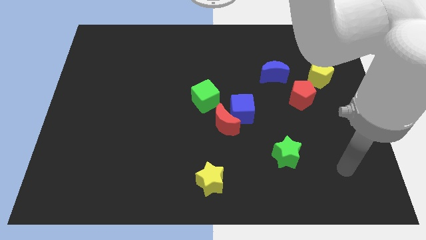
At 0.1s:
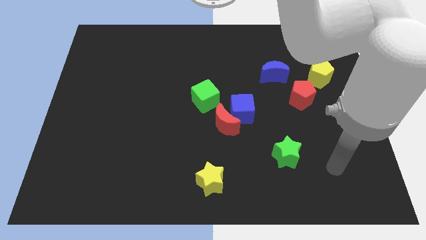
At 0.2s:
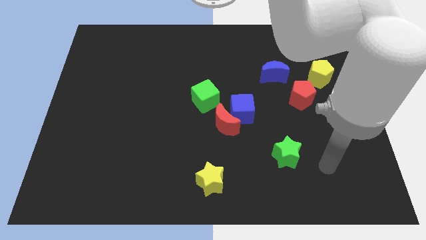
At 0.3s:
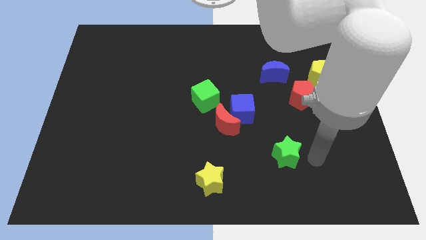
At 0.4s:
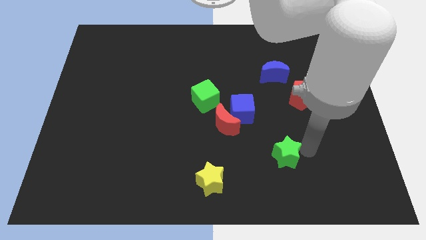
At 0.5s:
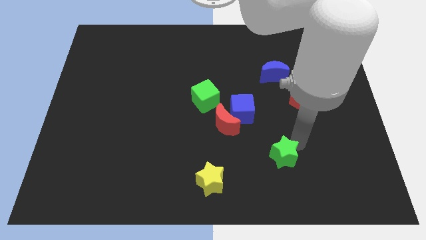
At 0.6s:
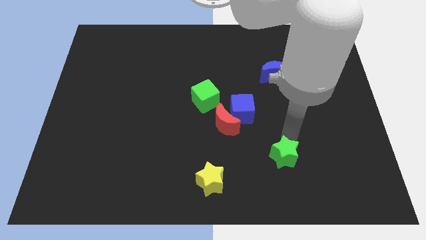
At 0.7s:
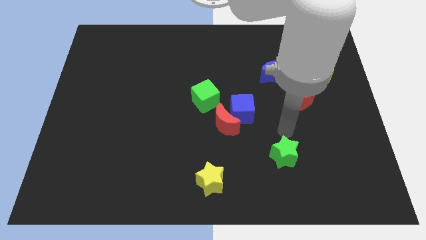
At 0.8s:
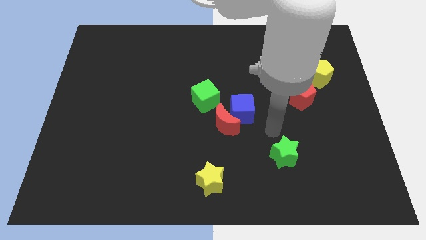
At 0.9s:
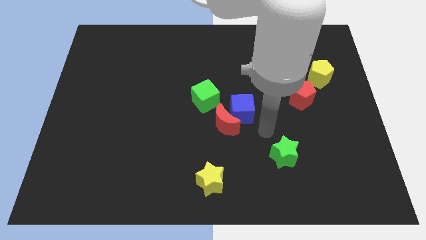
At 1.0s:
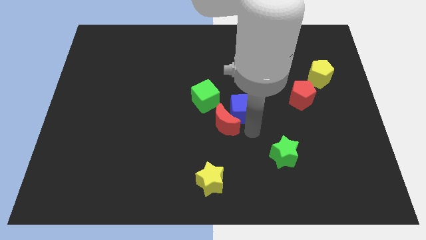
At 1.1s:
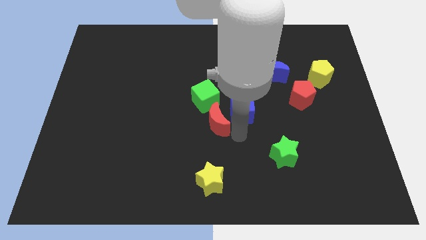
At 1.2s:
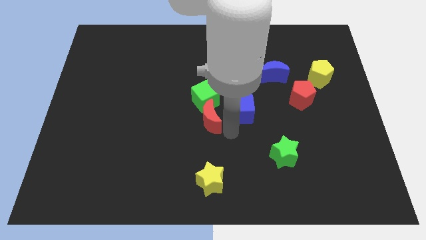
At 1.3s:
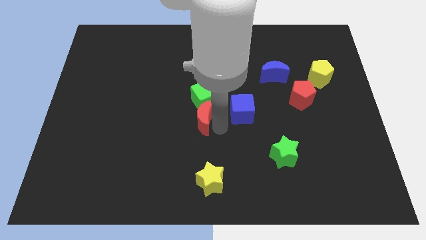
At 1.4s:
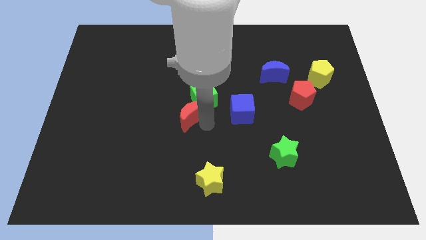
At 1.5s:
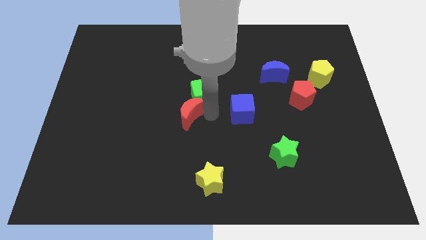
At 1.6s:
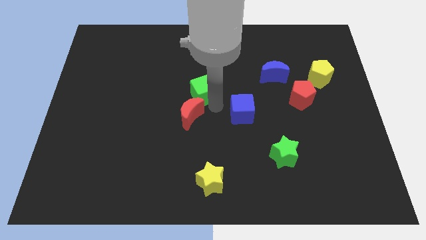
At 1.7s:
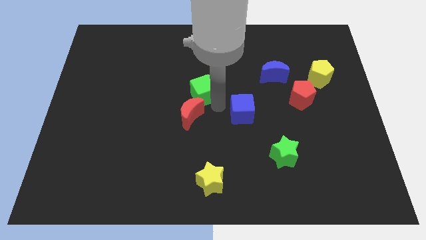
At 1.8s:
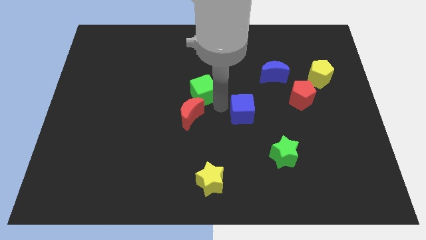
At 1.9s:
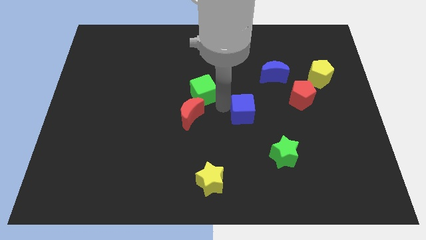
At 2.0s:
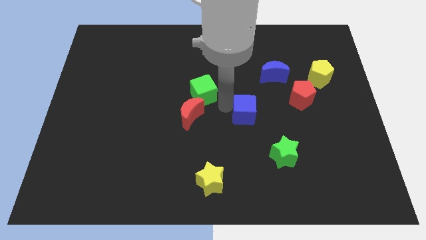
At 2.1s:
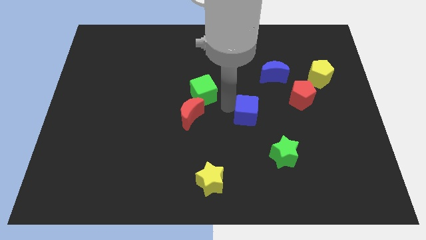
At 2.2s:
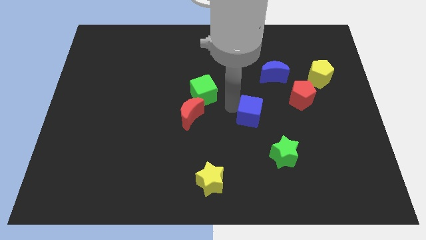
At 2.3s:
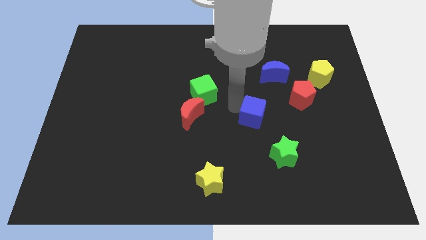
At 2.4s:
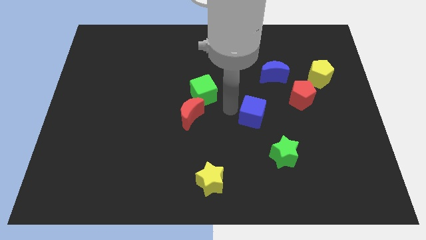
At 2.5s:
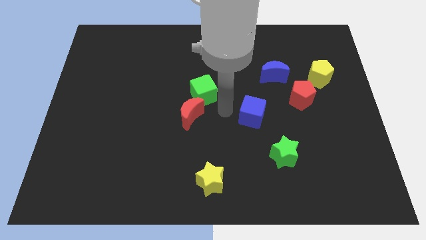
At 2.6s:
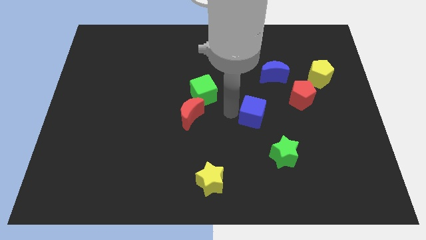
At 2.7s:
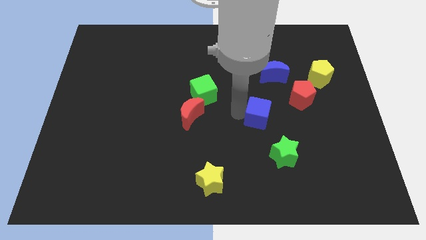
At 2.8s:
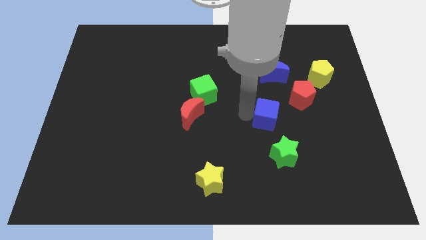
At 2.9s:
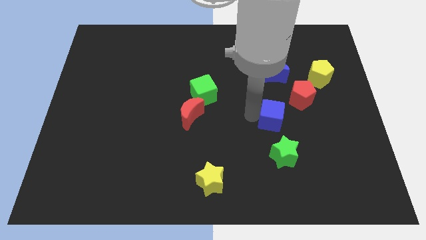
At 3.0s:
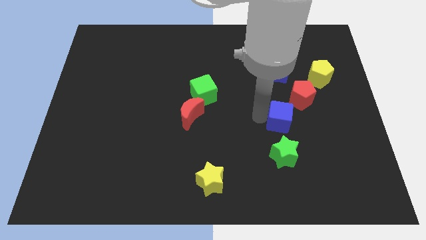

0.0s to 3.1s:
push the blue cube a little bit to the right

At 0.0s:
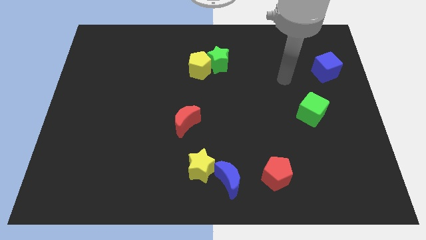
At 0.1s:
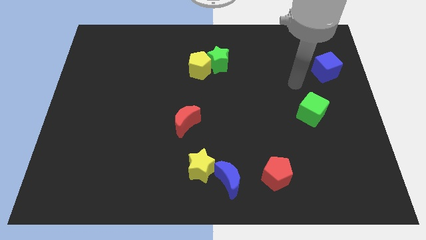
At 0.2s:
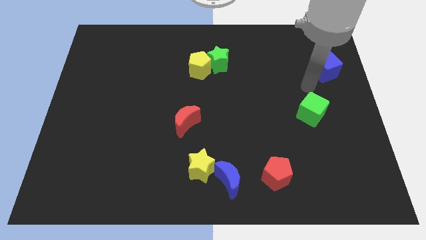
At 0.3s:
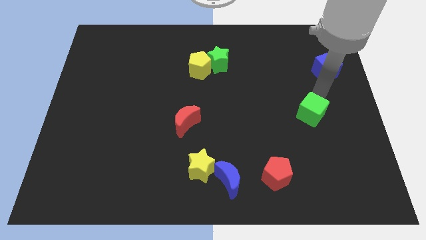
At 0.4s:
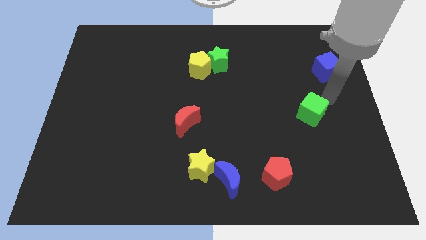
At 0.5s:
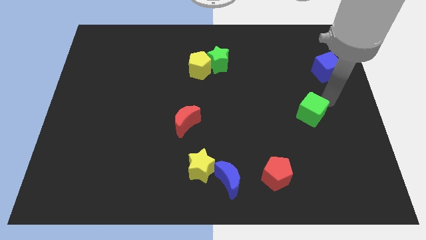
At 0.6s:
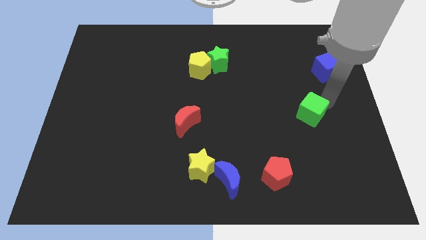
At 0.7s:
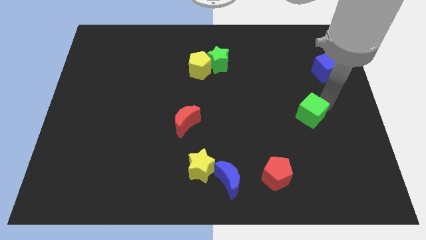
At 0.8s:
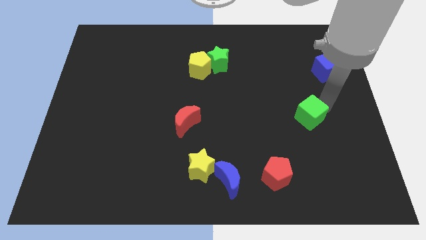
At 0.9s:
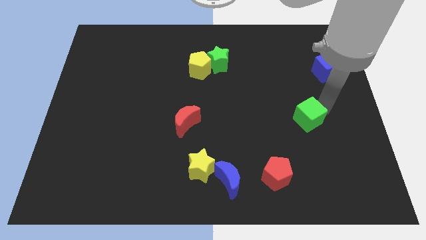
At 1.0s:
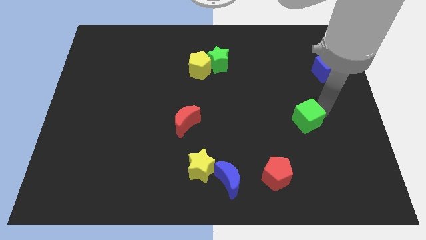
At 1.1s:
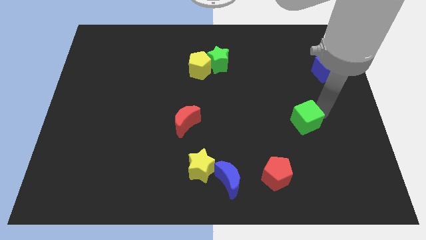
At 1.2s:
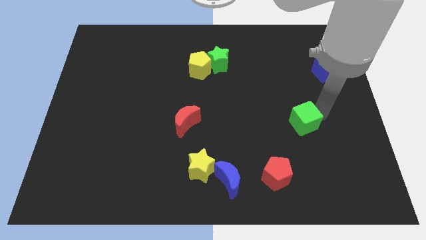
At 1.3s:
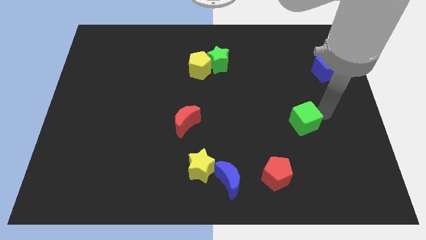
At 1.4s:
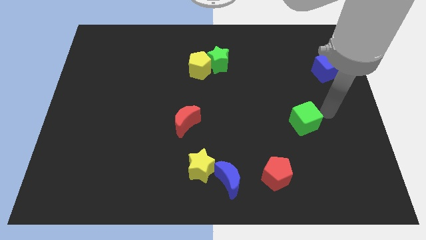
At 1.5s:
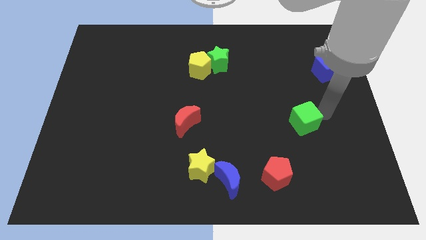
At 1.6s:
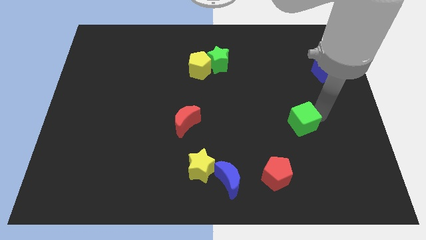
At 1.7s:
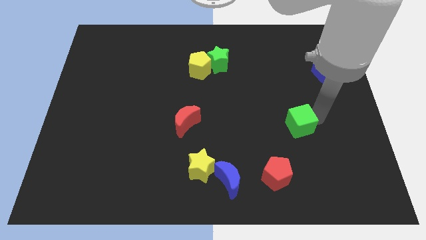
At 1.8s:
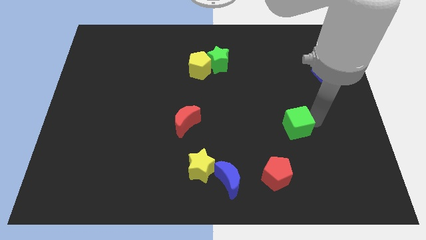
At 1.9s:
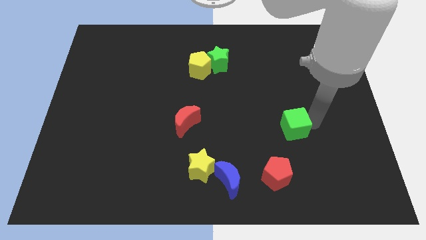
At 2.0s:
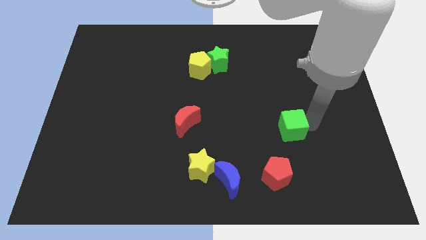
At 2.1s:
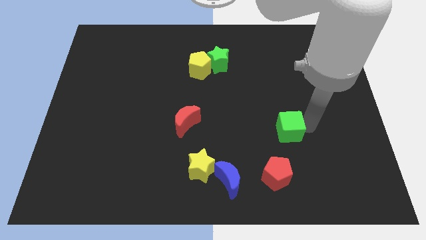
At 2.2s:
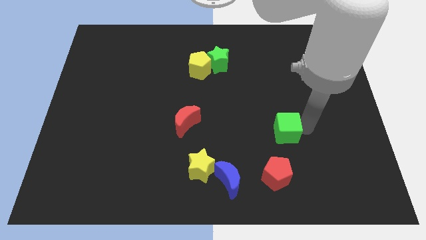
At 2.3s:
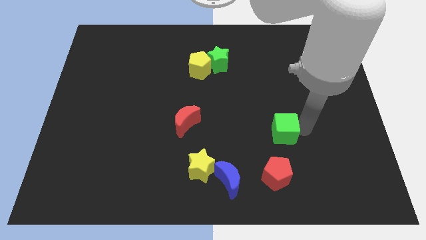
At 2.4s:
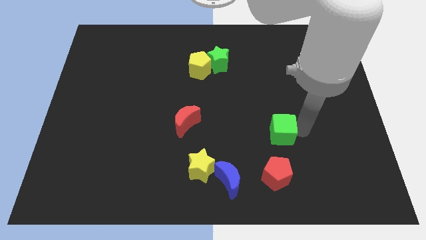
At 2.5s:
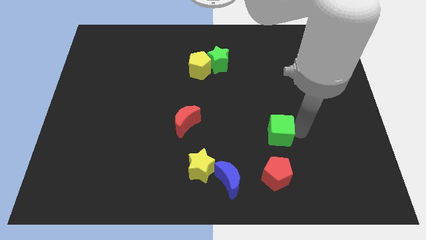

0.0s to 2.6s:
push the green cube to the left a bit

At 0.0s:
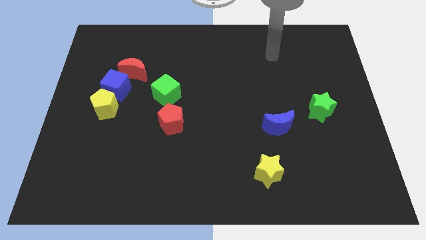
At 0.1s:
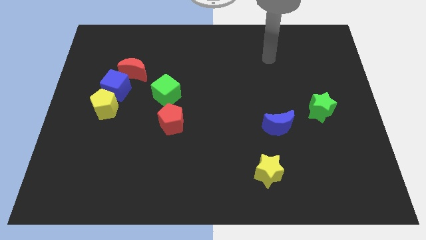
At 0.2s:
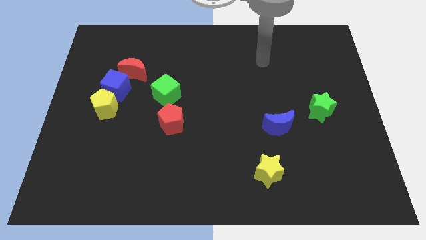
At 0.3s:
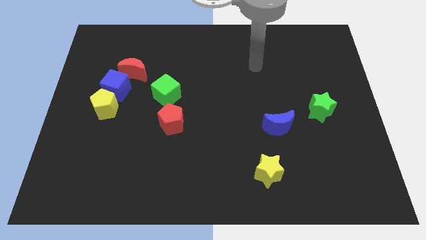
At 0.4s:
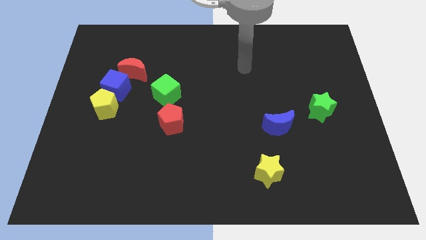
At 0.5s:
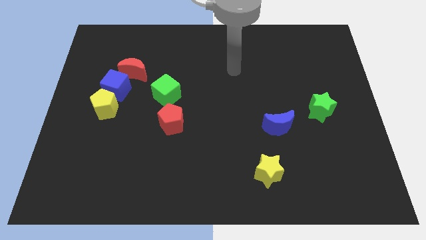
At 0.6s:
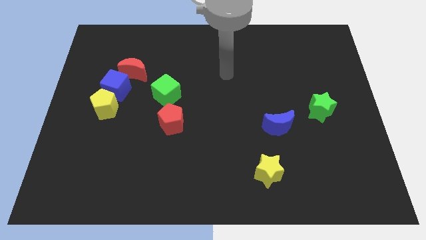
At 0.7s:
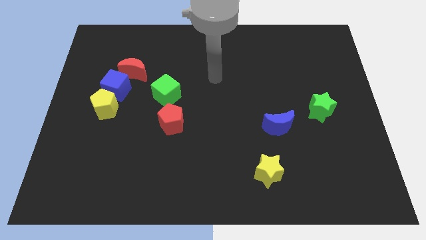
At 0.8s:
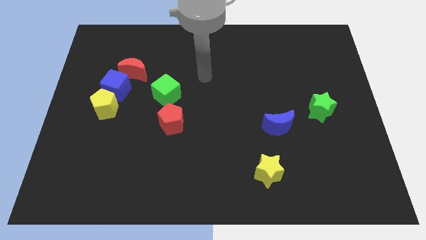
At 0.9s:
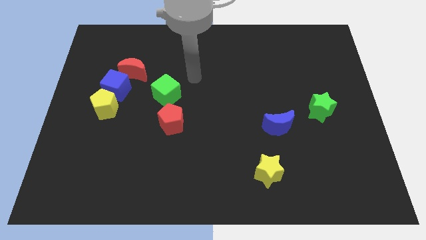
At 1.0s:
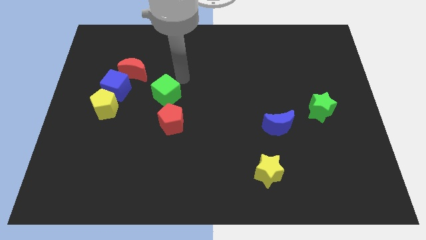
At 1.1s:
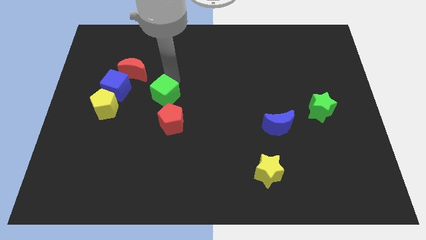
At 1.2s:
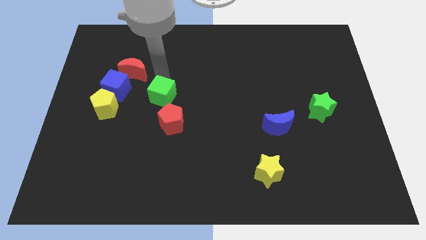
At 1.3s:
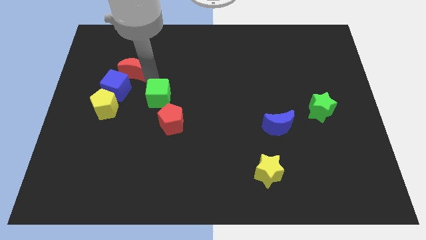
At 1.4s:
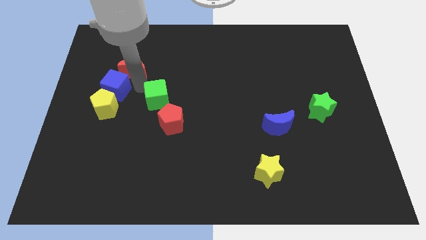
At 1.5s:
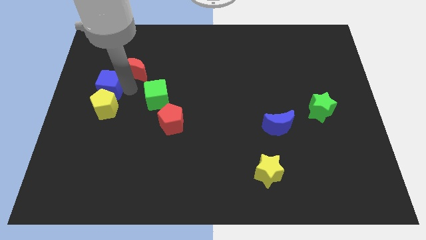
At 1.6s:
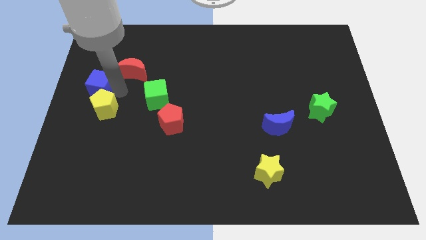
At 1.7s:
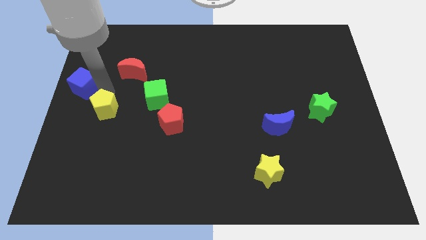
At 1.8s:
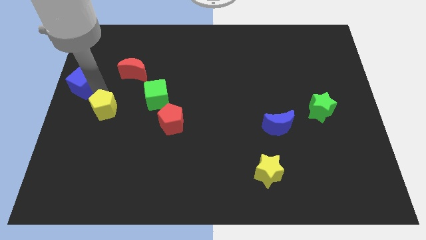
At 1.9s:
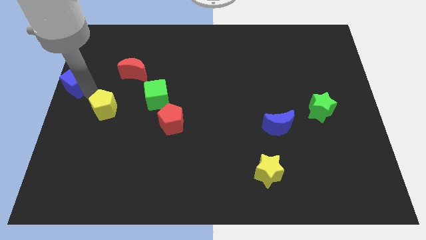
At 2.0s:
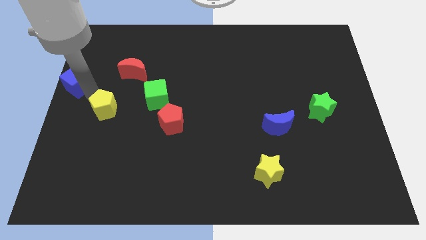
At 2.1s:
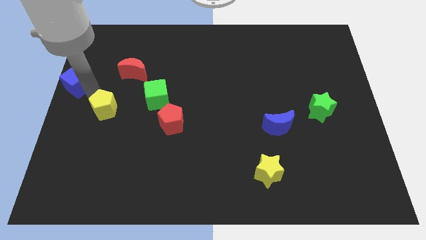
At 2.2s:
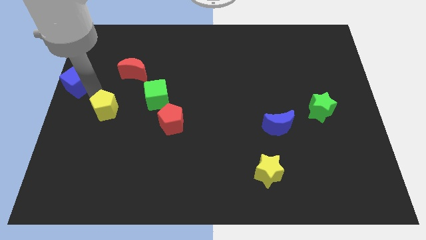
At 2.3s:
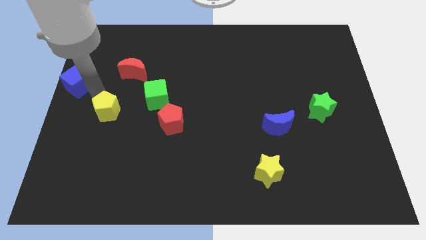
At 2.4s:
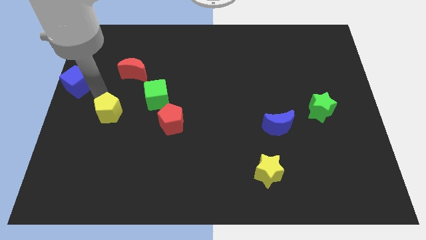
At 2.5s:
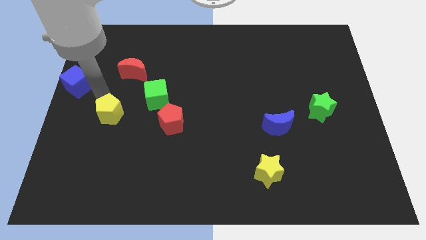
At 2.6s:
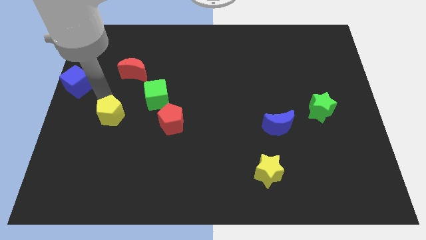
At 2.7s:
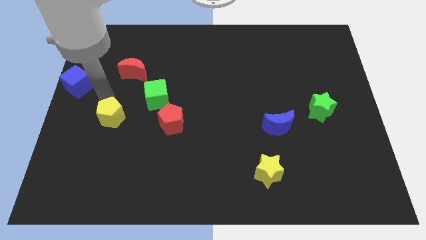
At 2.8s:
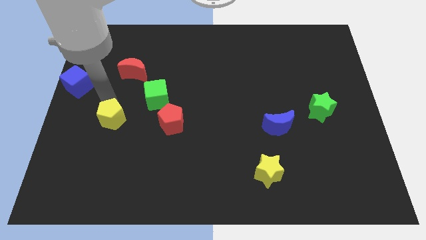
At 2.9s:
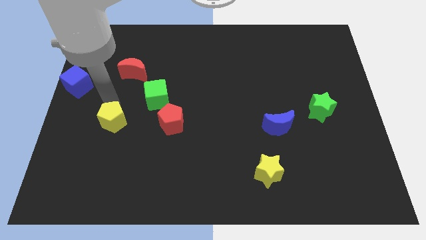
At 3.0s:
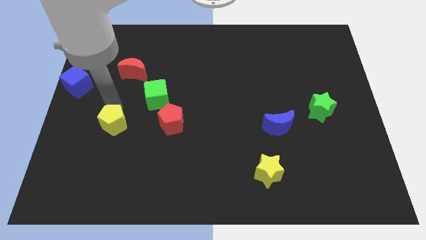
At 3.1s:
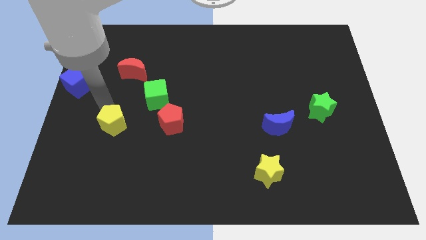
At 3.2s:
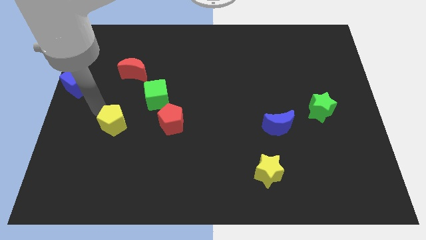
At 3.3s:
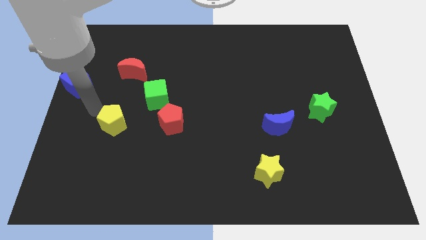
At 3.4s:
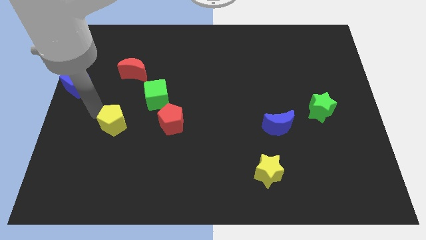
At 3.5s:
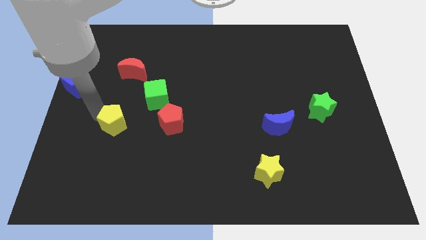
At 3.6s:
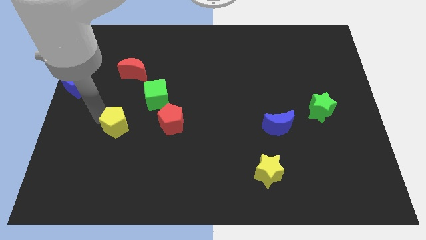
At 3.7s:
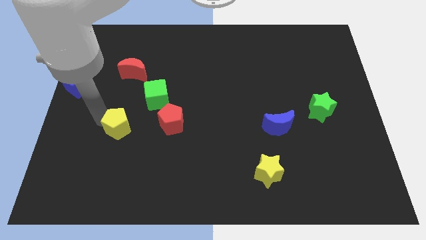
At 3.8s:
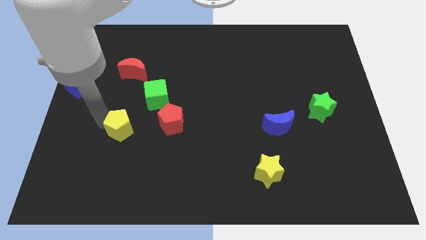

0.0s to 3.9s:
slightly move the yellow pentagon downwards and to the right
